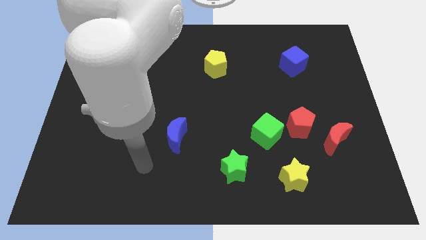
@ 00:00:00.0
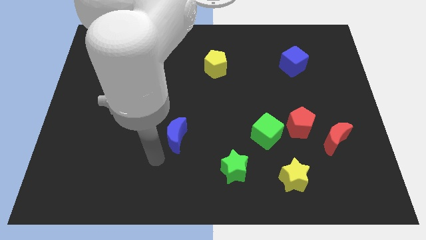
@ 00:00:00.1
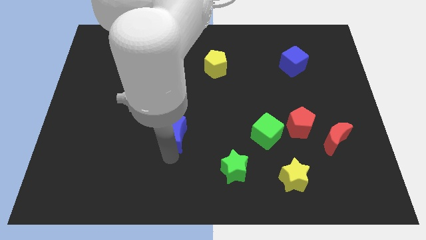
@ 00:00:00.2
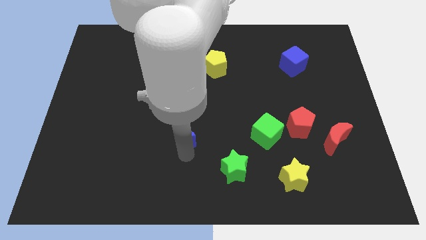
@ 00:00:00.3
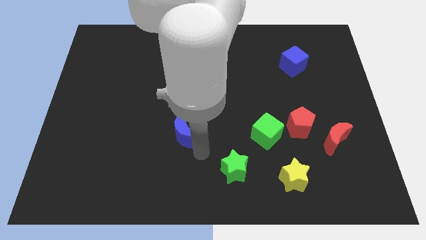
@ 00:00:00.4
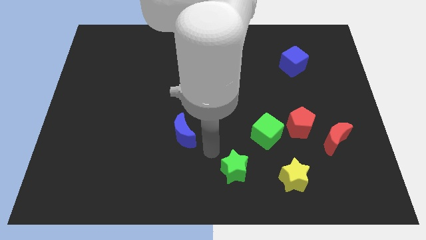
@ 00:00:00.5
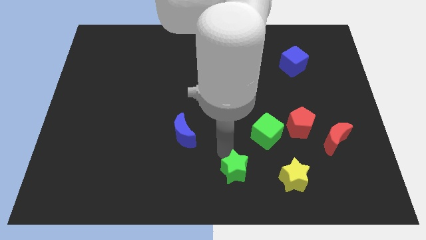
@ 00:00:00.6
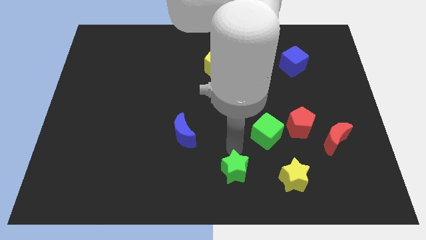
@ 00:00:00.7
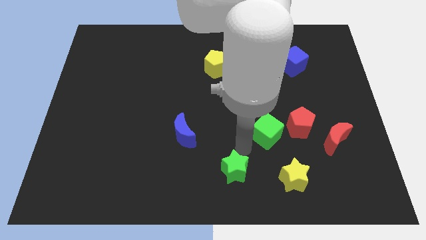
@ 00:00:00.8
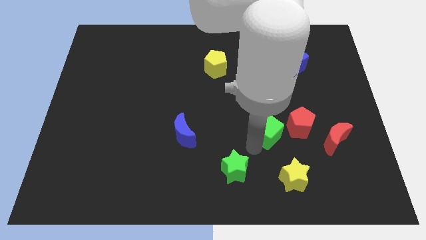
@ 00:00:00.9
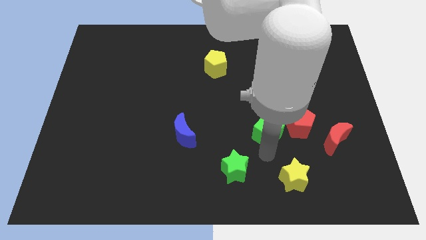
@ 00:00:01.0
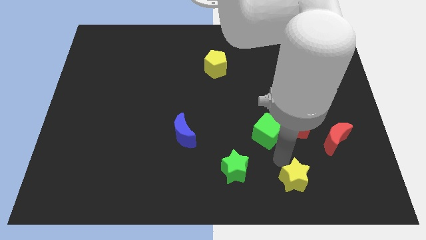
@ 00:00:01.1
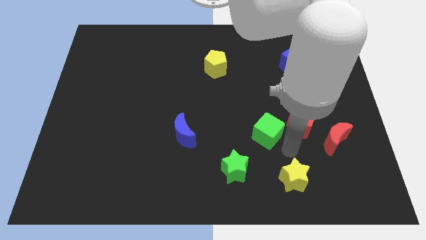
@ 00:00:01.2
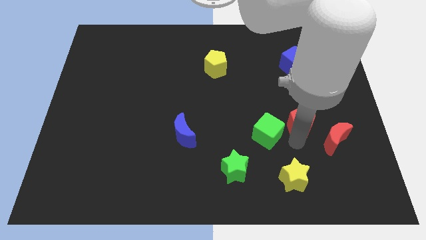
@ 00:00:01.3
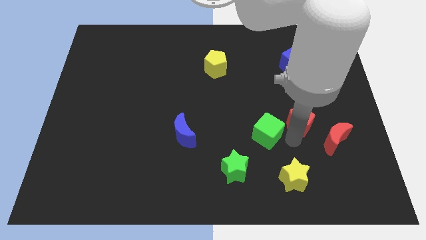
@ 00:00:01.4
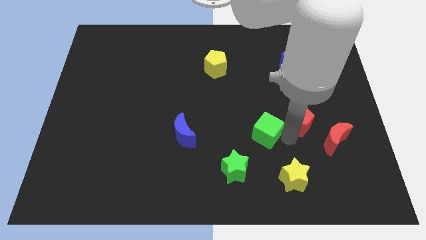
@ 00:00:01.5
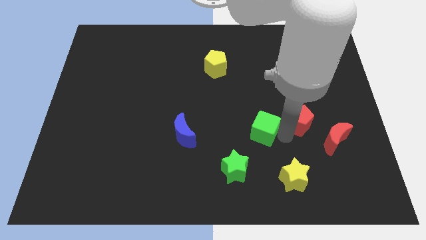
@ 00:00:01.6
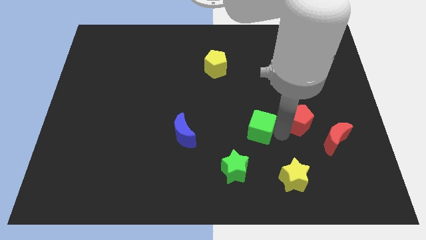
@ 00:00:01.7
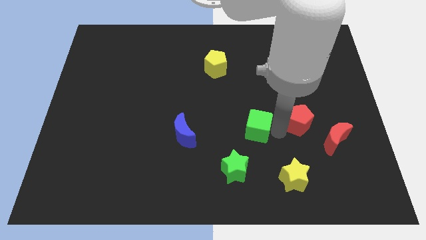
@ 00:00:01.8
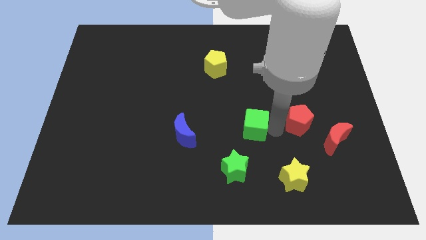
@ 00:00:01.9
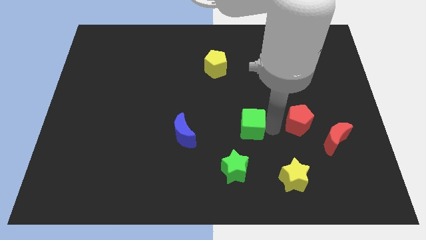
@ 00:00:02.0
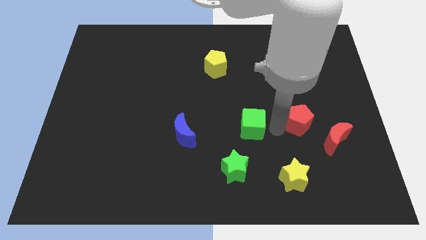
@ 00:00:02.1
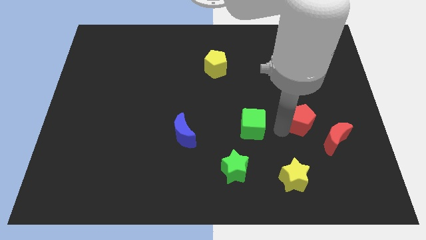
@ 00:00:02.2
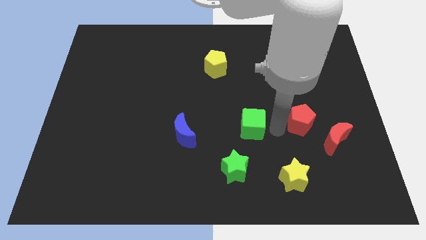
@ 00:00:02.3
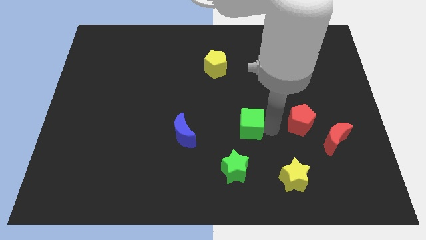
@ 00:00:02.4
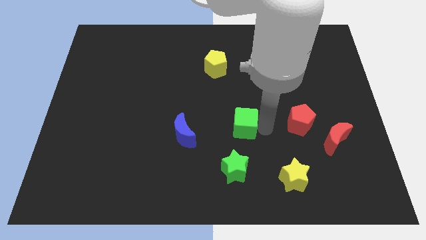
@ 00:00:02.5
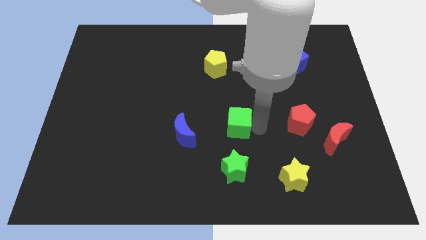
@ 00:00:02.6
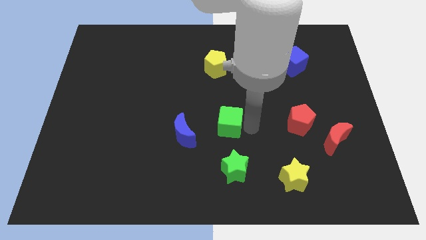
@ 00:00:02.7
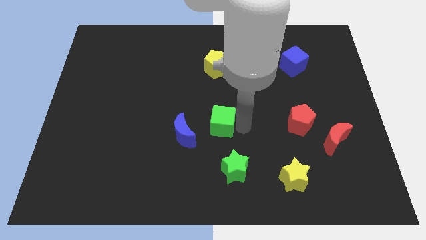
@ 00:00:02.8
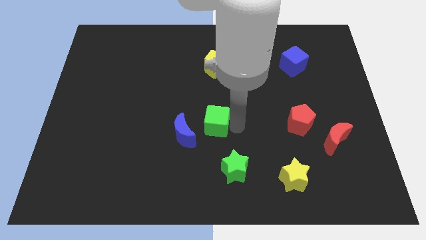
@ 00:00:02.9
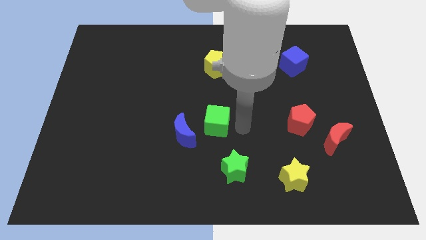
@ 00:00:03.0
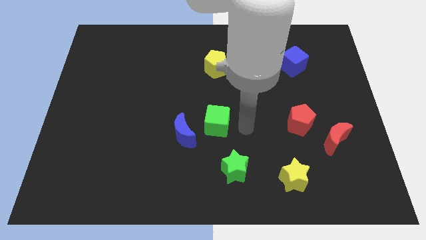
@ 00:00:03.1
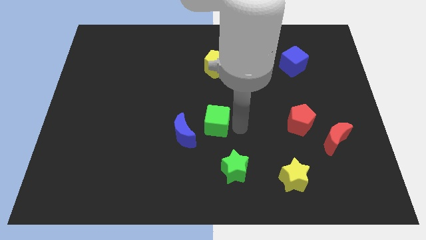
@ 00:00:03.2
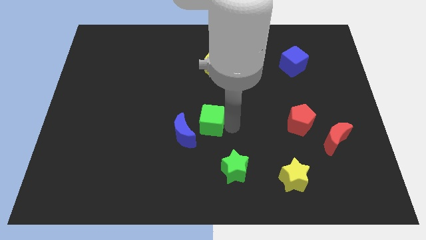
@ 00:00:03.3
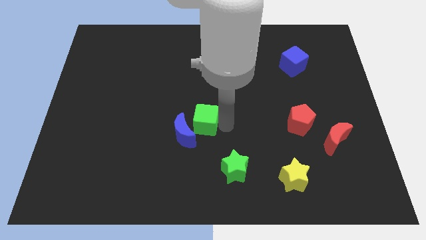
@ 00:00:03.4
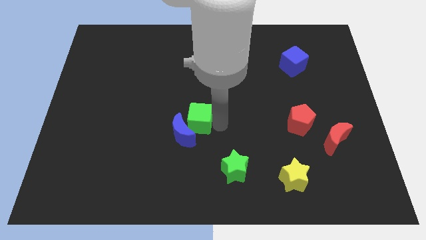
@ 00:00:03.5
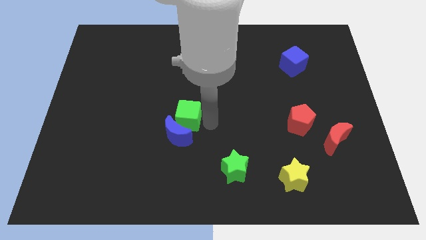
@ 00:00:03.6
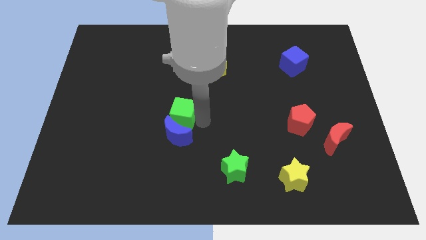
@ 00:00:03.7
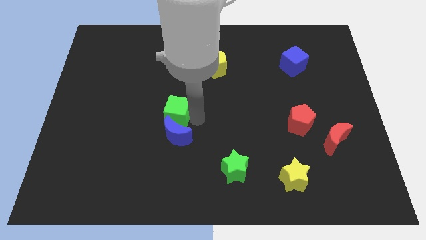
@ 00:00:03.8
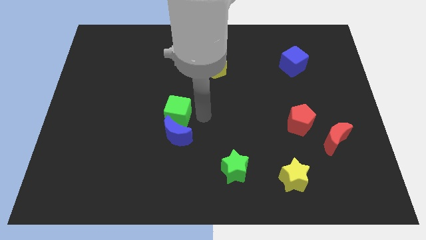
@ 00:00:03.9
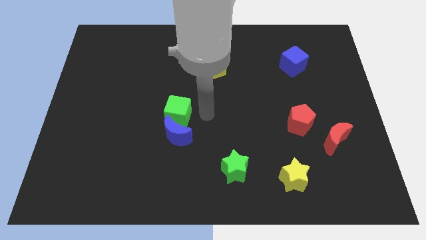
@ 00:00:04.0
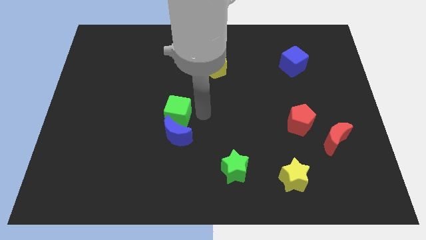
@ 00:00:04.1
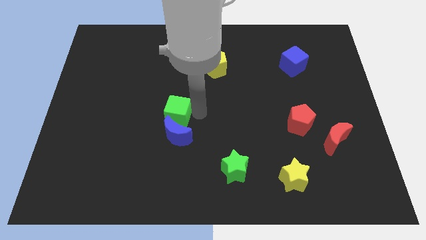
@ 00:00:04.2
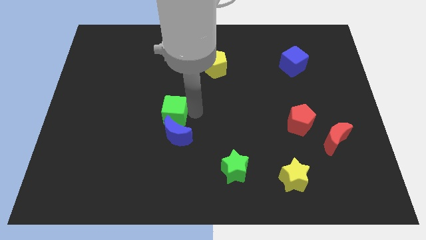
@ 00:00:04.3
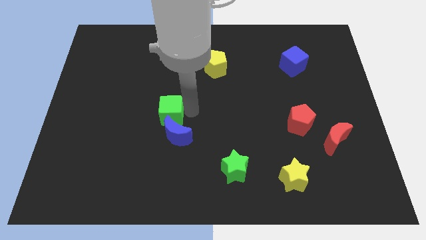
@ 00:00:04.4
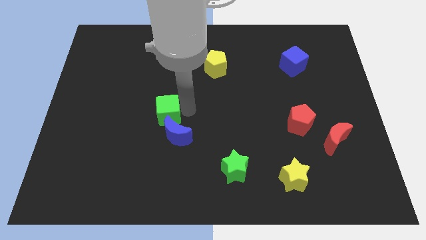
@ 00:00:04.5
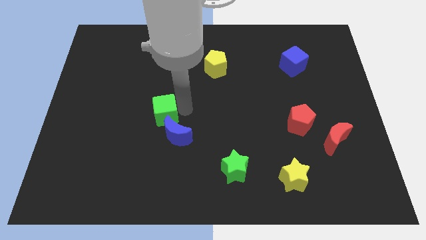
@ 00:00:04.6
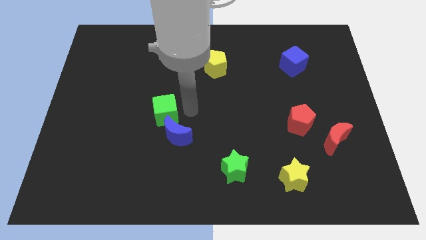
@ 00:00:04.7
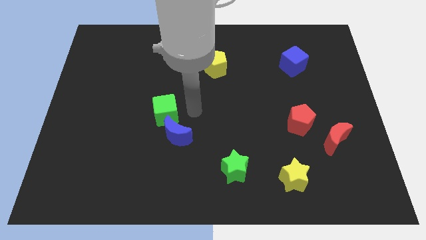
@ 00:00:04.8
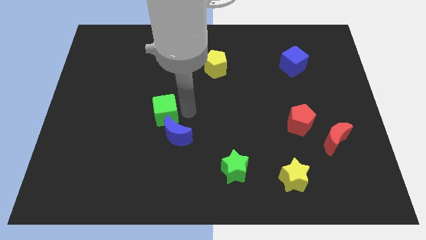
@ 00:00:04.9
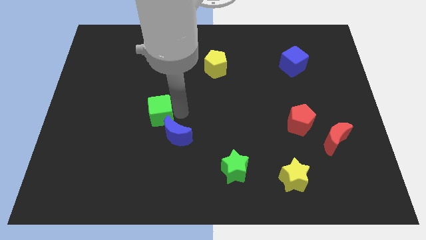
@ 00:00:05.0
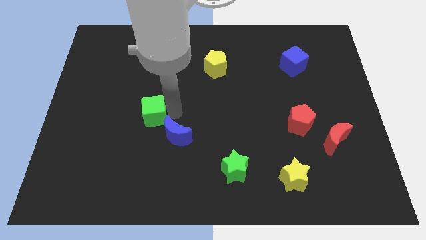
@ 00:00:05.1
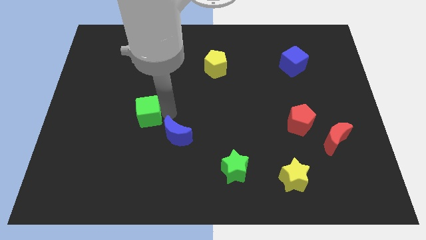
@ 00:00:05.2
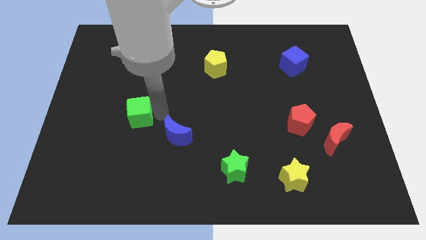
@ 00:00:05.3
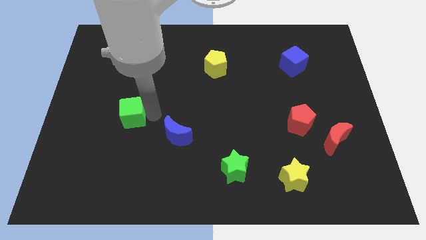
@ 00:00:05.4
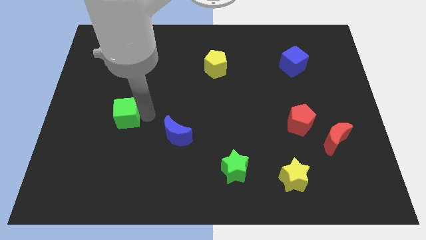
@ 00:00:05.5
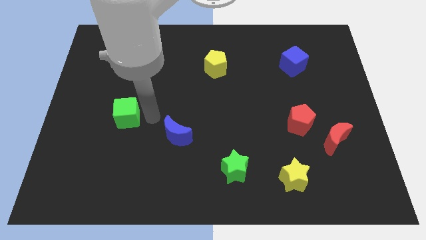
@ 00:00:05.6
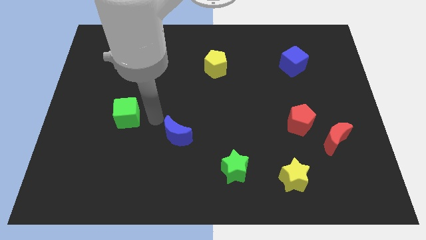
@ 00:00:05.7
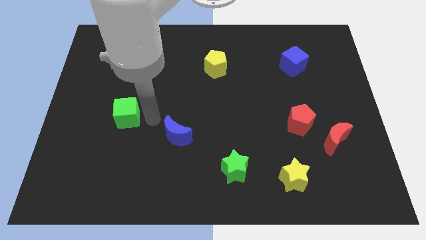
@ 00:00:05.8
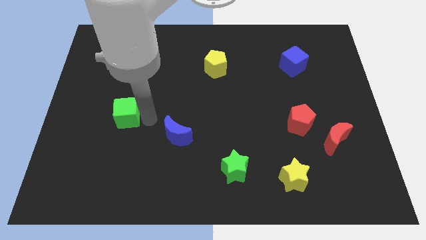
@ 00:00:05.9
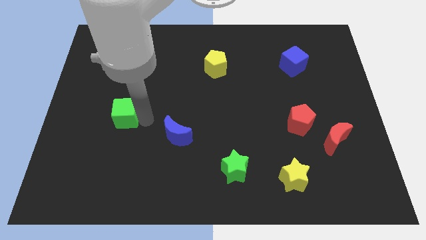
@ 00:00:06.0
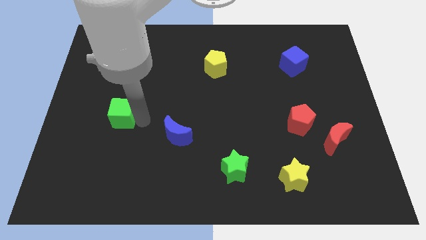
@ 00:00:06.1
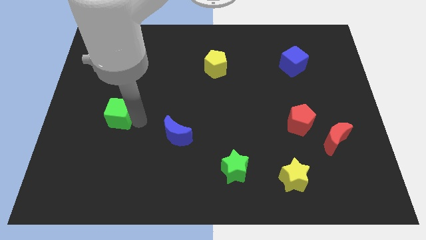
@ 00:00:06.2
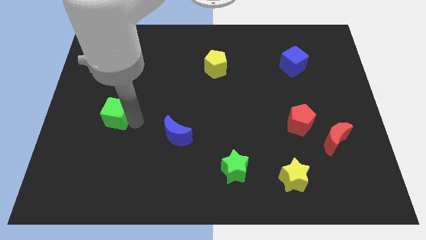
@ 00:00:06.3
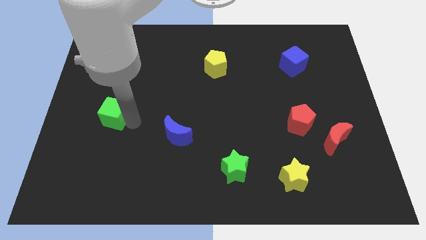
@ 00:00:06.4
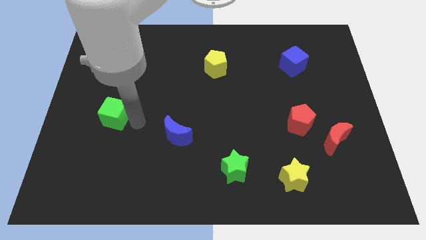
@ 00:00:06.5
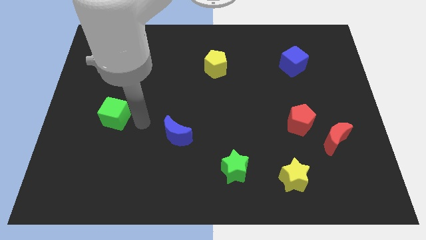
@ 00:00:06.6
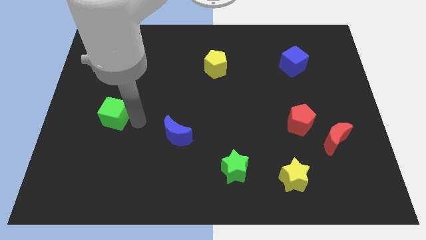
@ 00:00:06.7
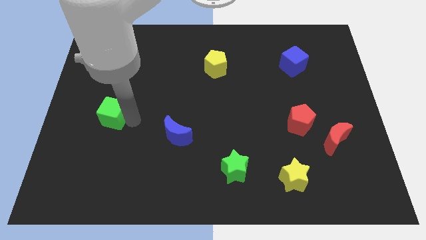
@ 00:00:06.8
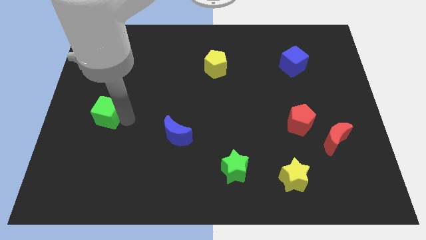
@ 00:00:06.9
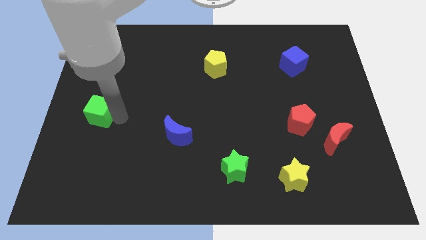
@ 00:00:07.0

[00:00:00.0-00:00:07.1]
move the green cube to the left side
